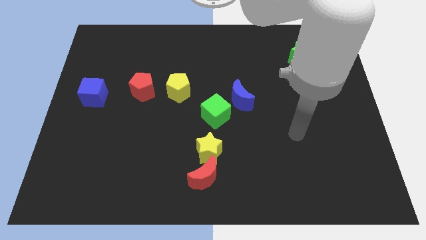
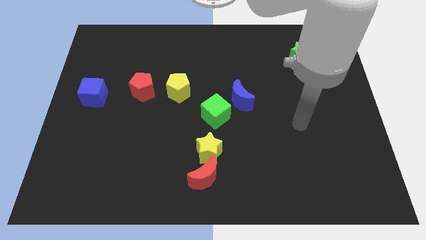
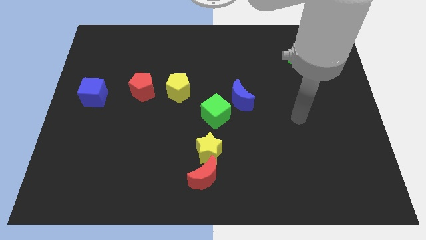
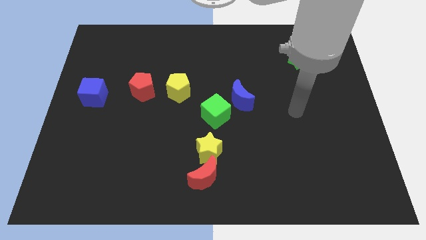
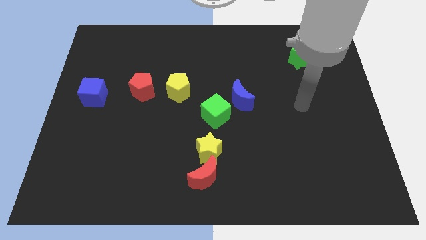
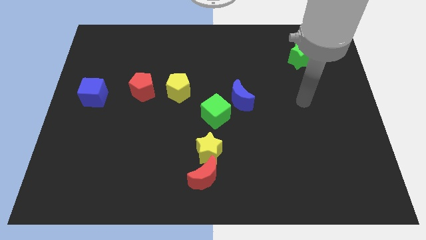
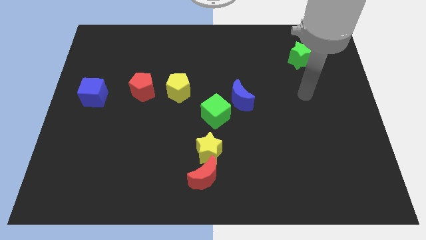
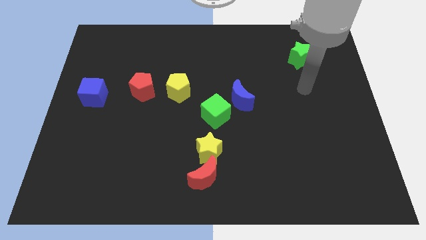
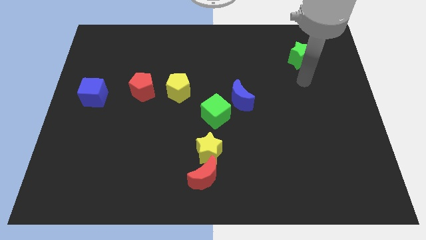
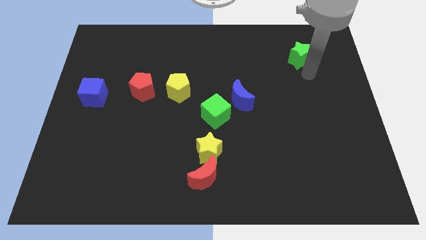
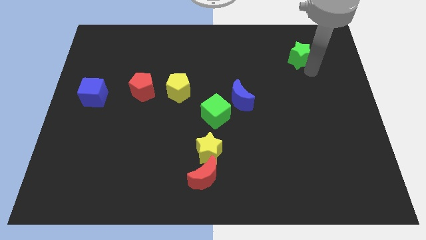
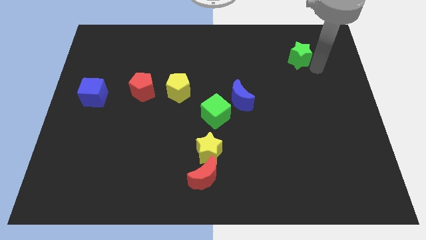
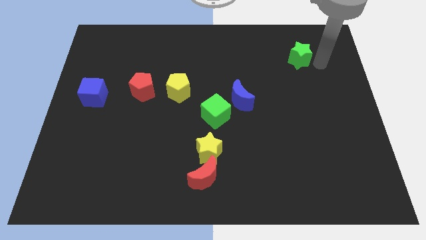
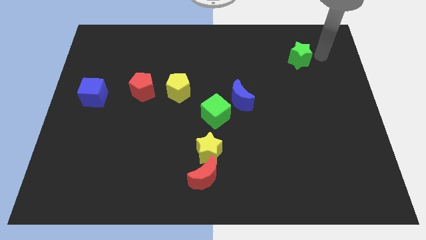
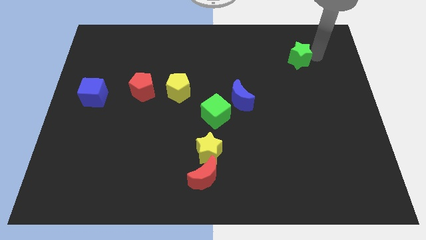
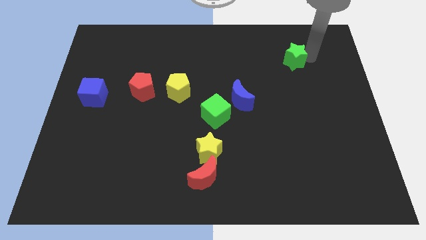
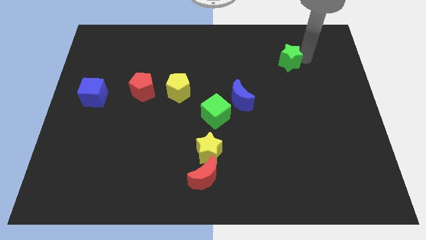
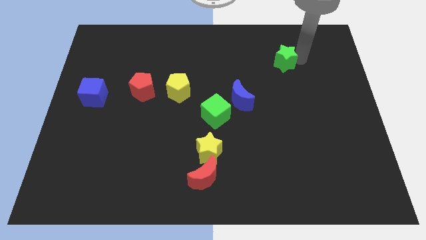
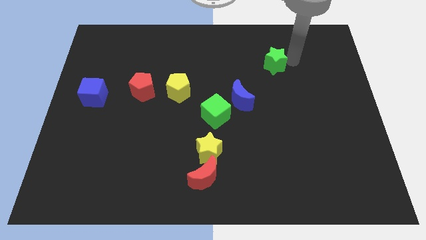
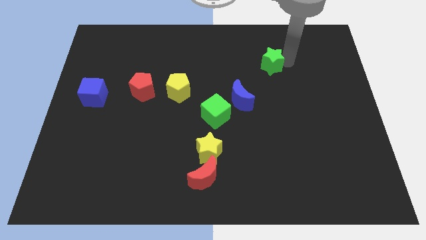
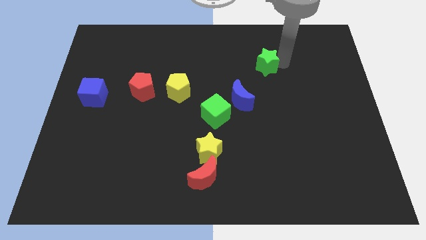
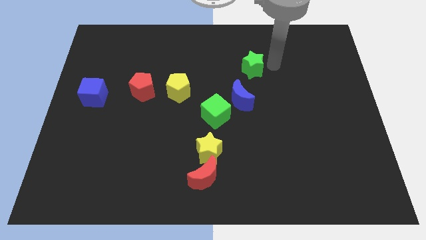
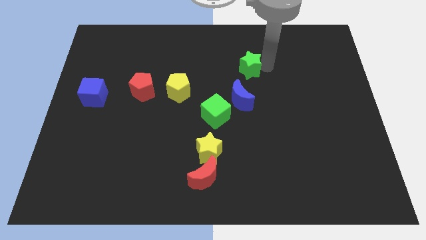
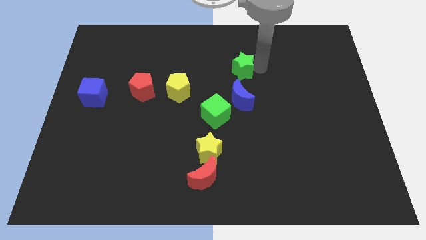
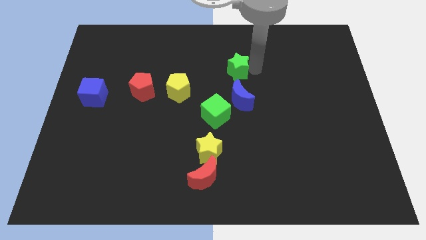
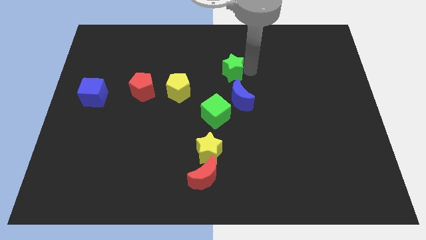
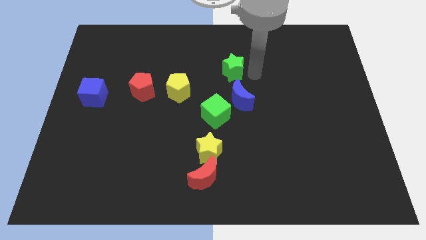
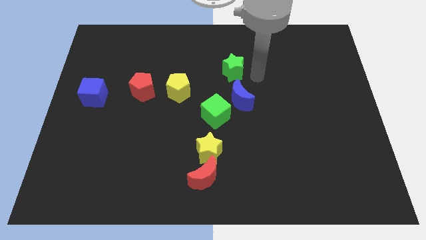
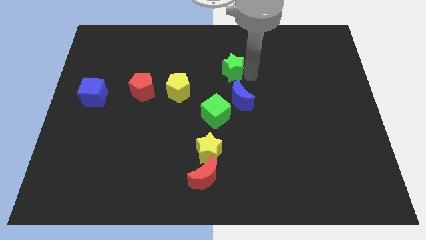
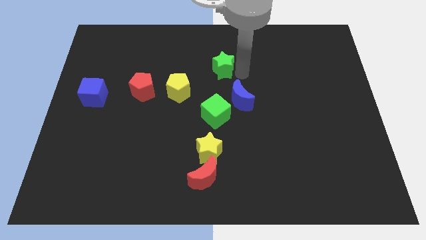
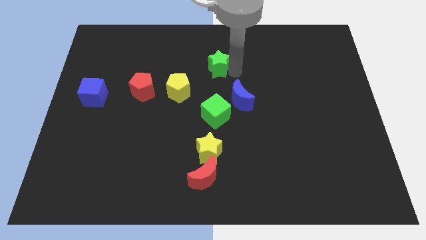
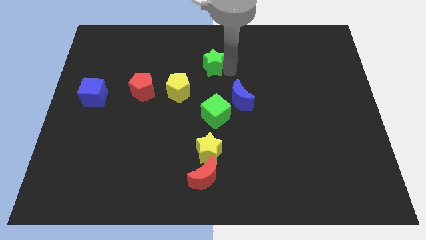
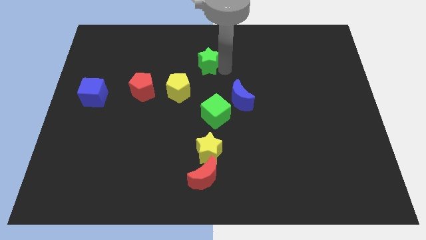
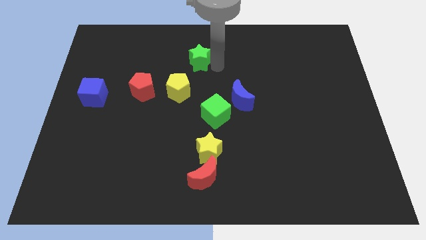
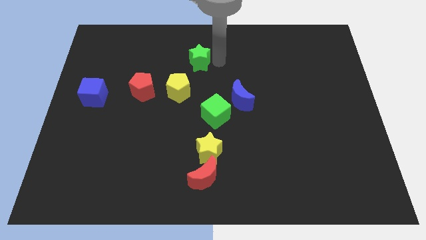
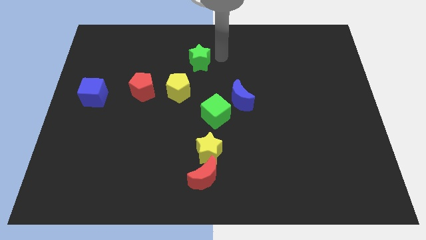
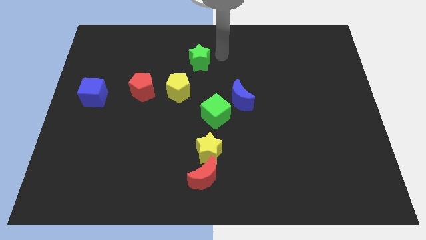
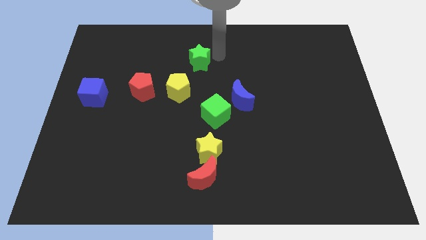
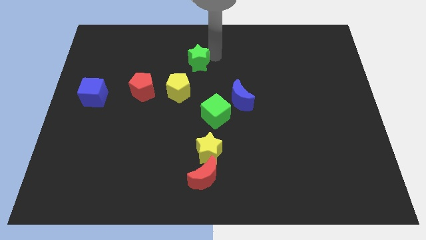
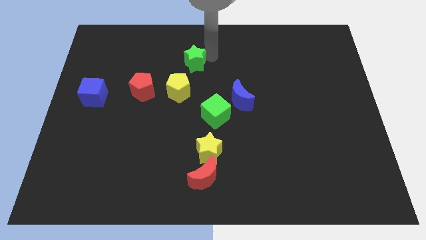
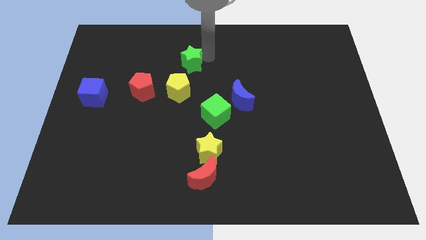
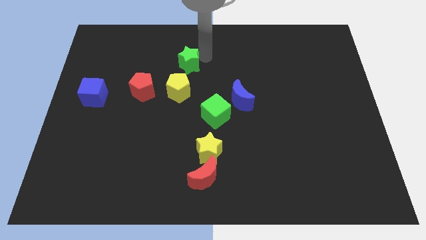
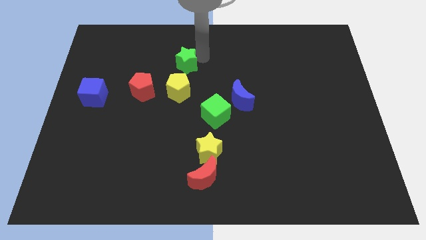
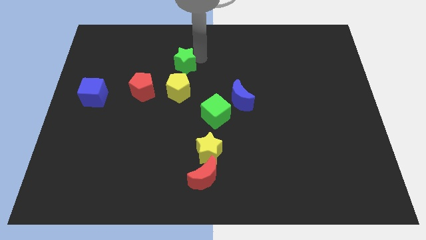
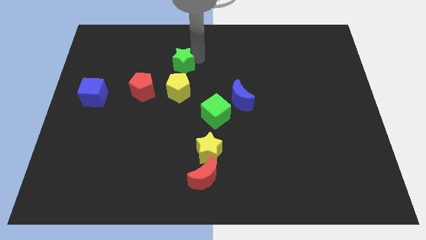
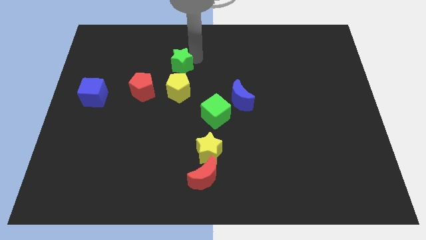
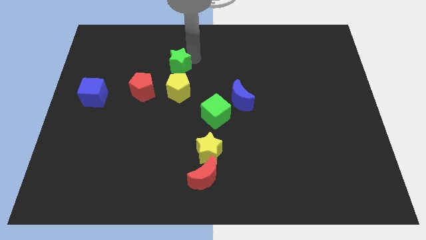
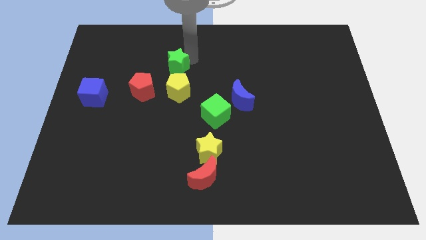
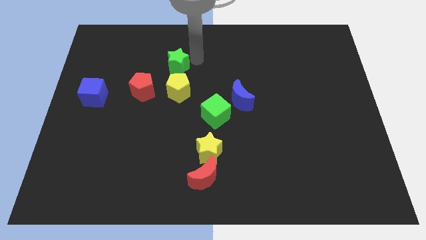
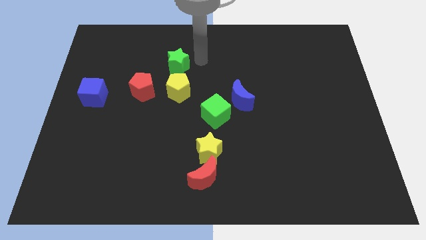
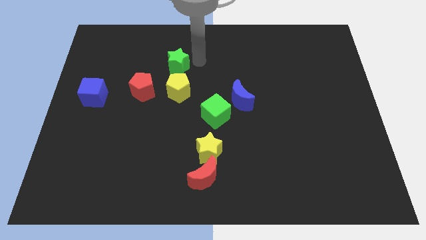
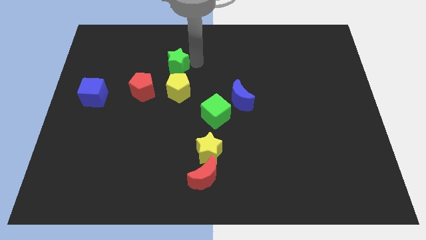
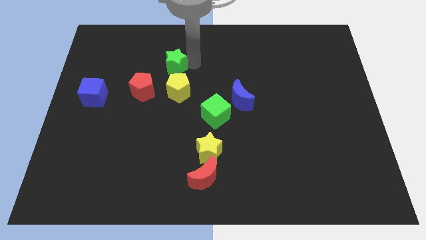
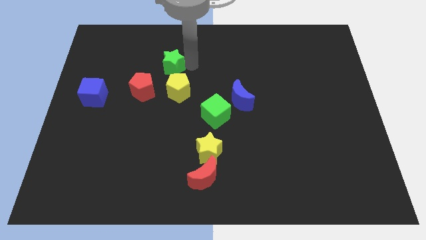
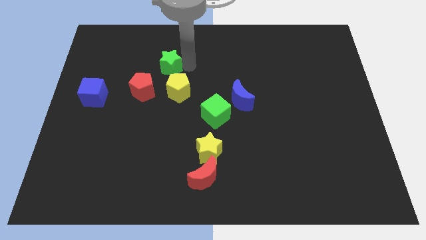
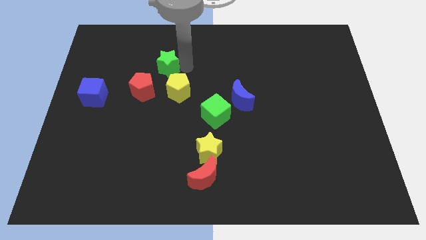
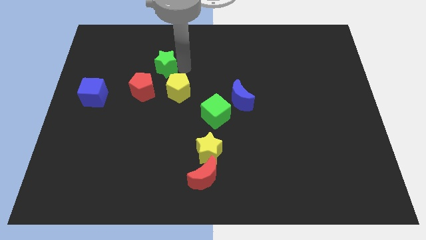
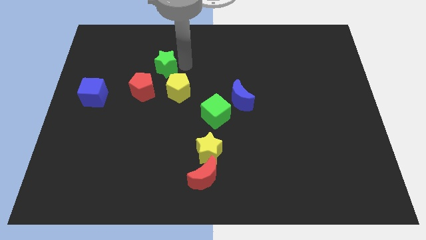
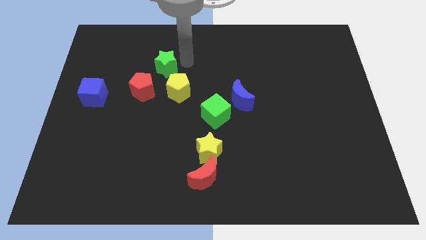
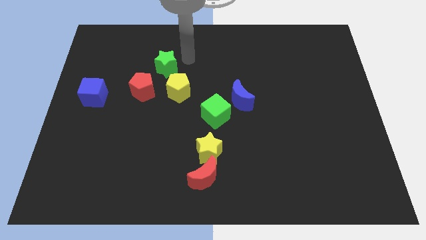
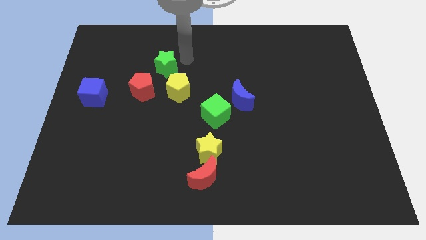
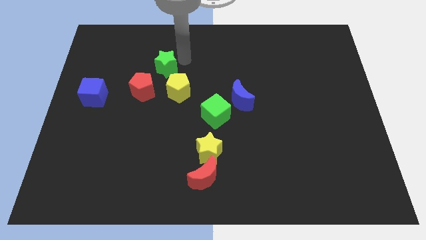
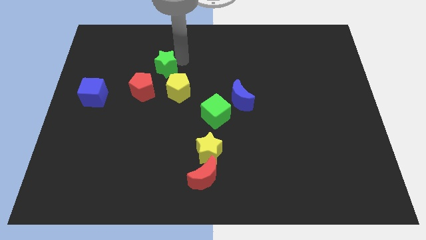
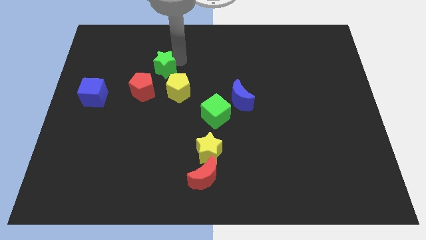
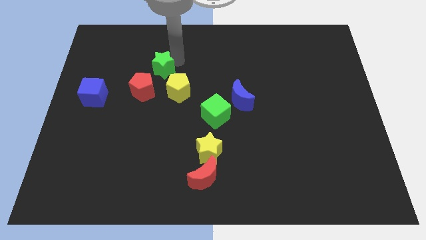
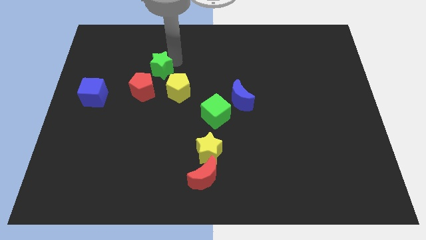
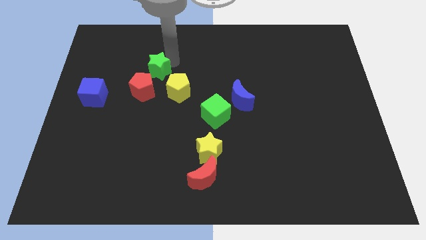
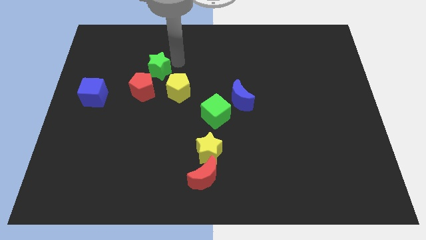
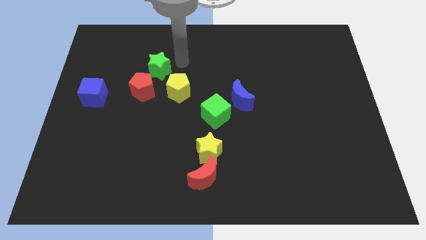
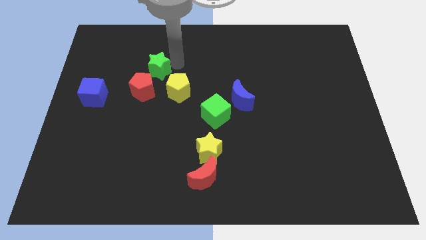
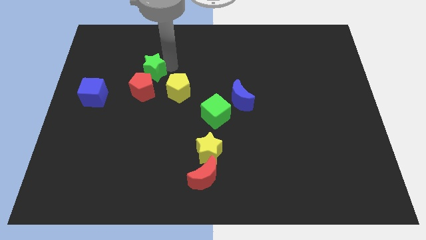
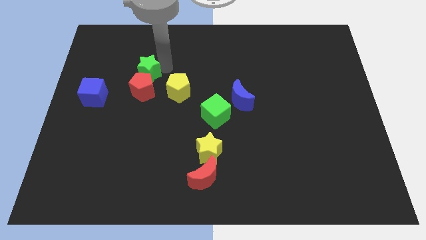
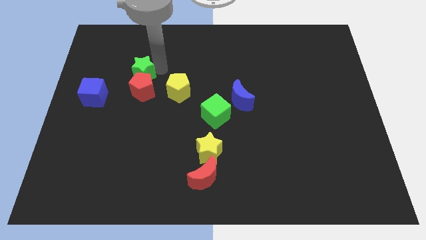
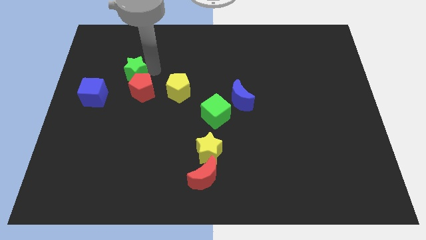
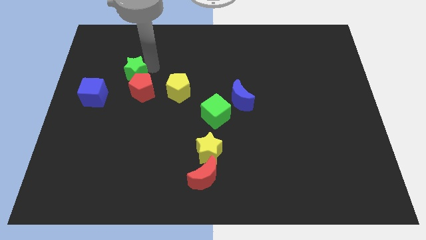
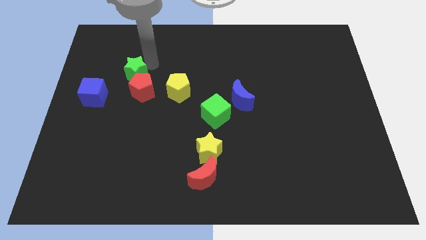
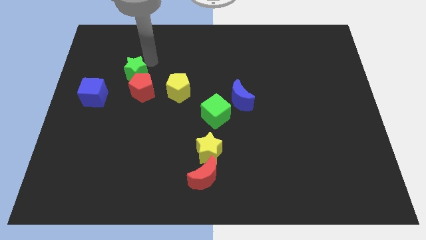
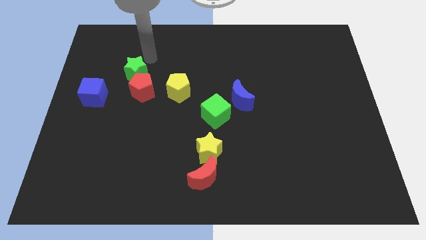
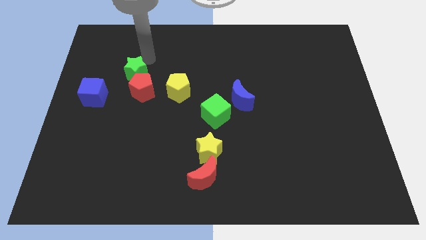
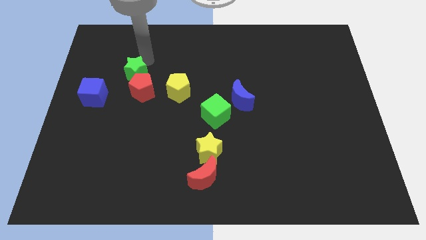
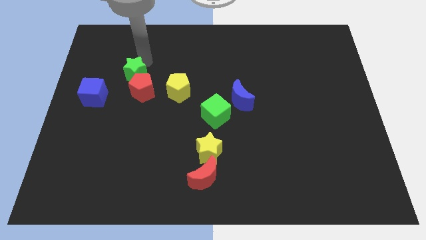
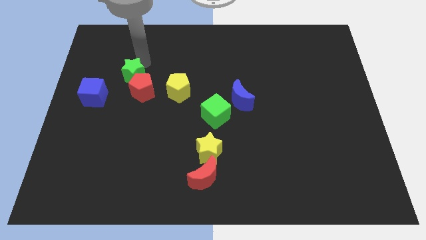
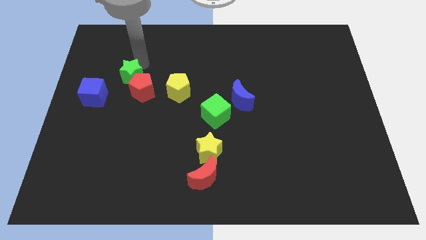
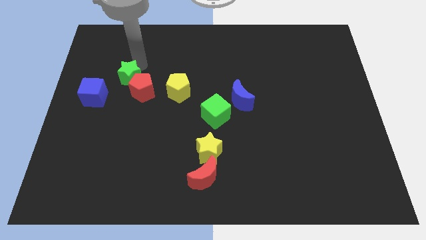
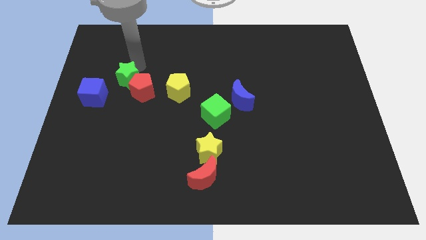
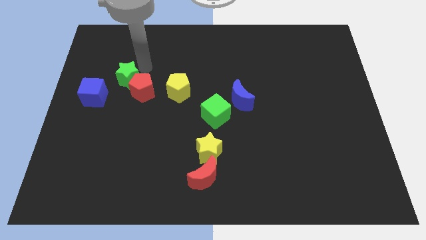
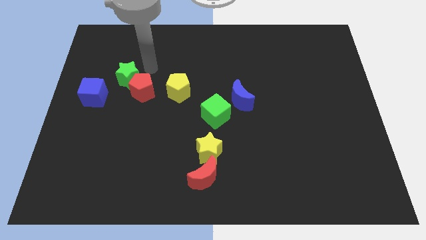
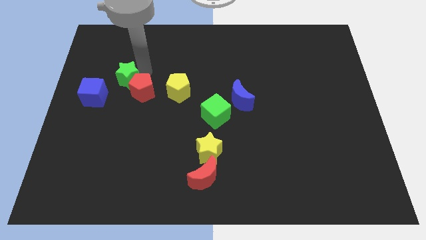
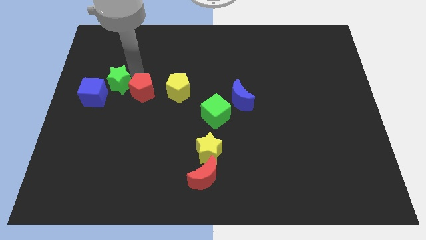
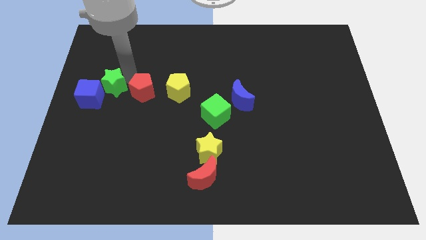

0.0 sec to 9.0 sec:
move the green star close to the blue cube
